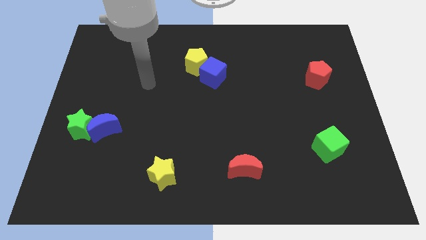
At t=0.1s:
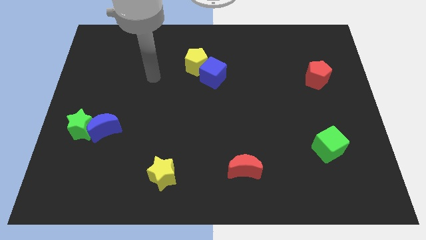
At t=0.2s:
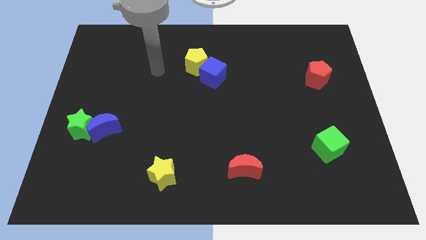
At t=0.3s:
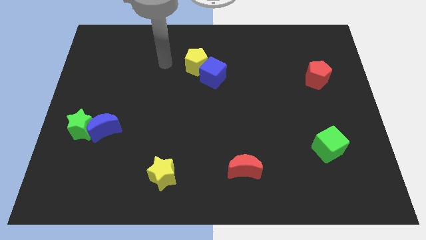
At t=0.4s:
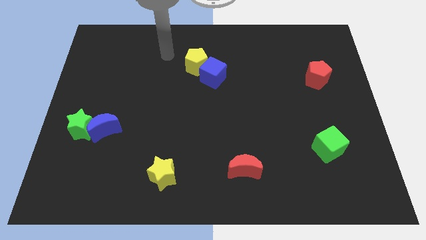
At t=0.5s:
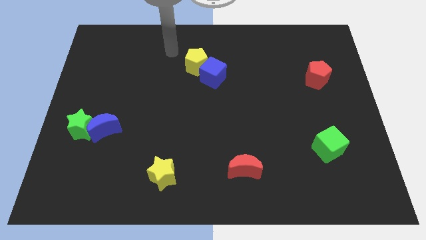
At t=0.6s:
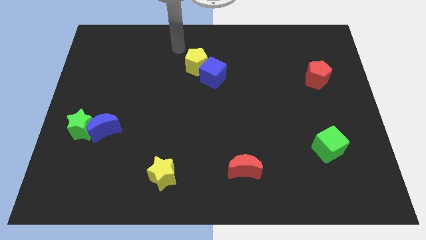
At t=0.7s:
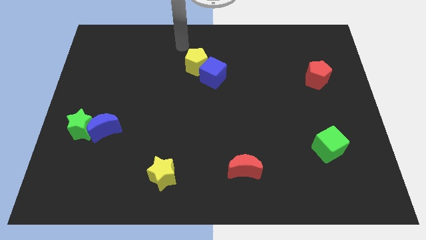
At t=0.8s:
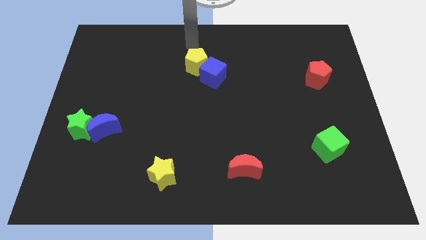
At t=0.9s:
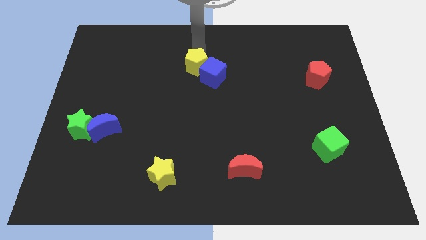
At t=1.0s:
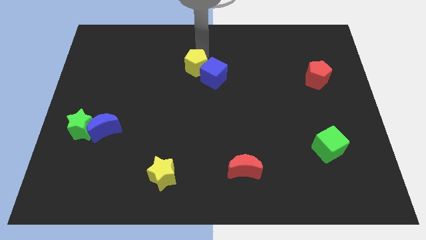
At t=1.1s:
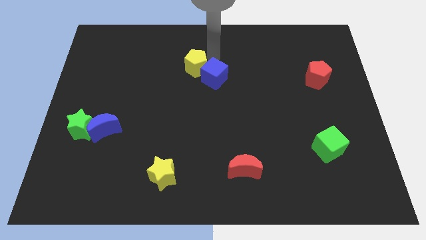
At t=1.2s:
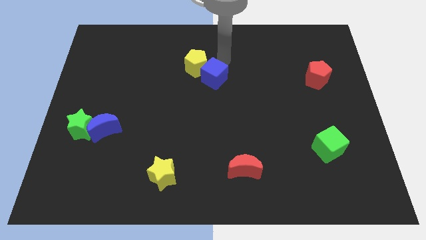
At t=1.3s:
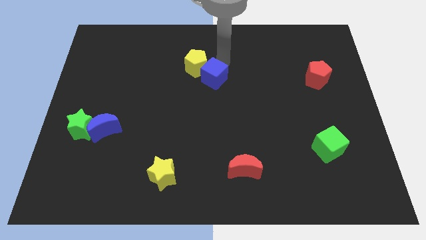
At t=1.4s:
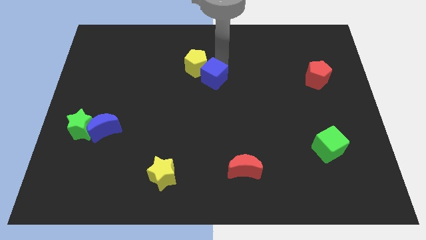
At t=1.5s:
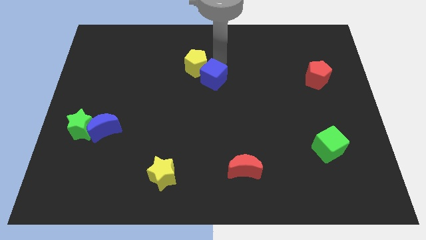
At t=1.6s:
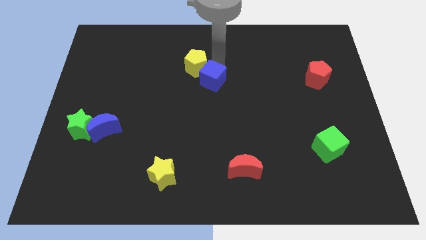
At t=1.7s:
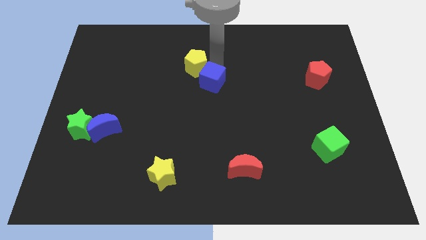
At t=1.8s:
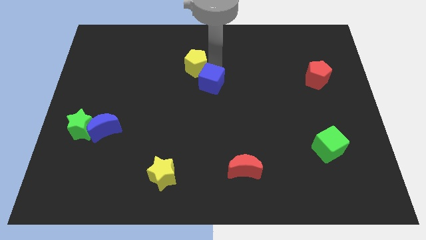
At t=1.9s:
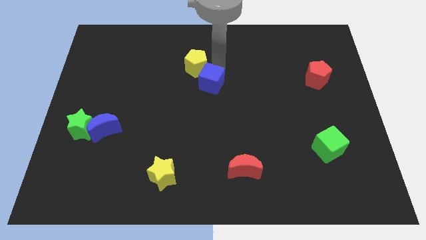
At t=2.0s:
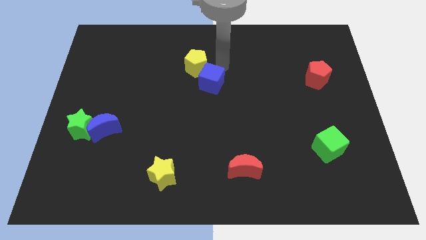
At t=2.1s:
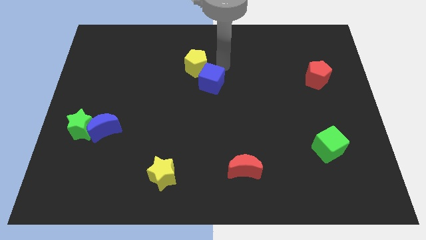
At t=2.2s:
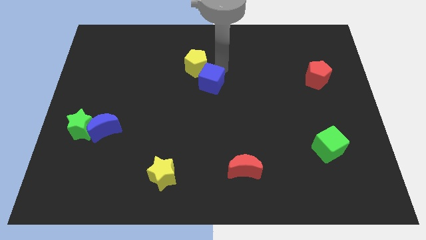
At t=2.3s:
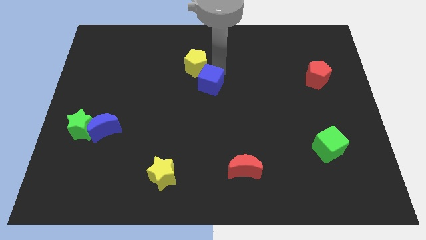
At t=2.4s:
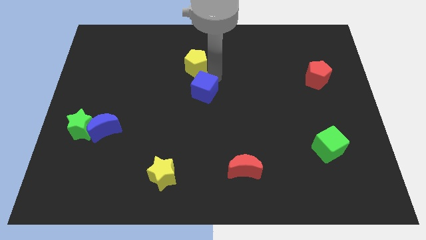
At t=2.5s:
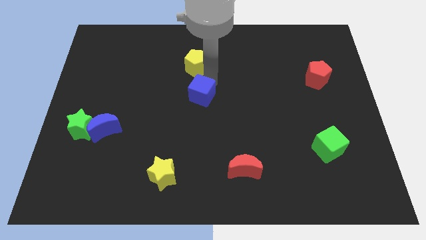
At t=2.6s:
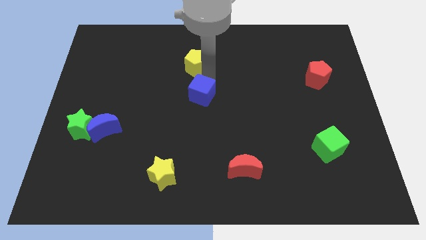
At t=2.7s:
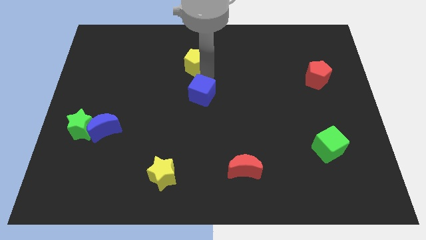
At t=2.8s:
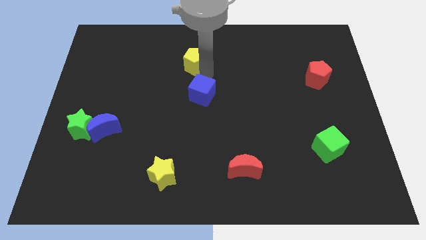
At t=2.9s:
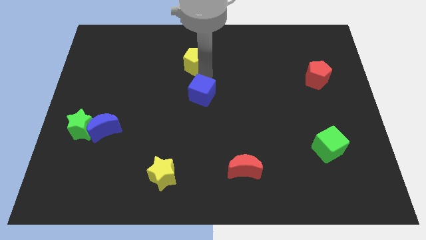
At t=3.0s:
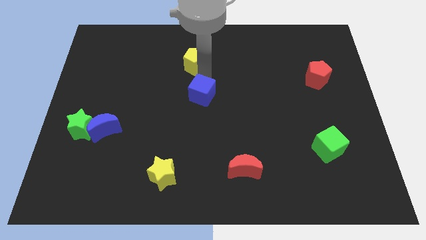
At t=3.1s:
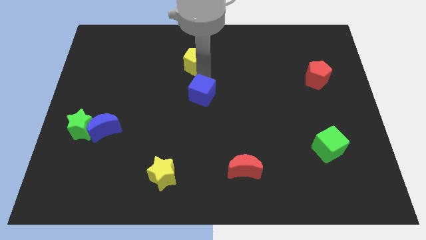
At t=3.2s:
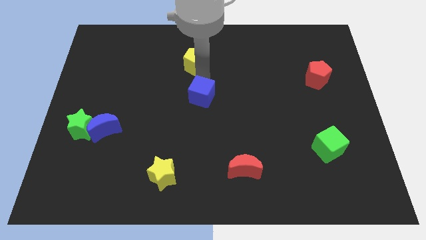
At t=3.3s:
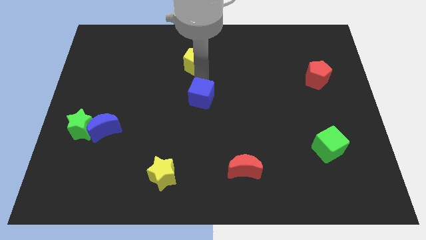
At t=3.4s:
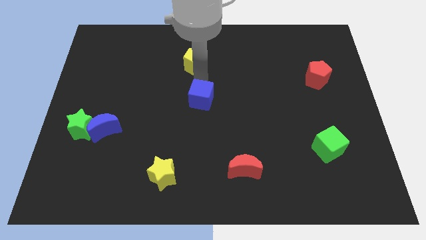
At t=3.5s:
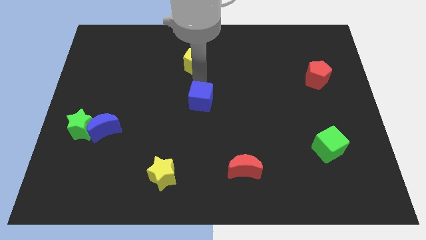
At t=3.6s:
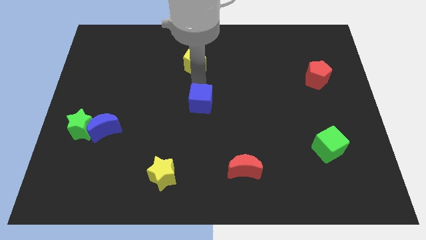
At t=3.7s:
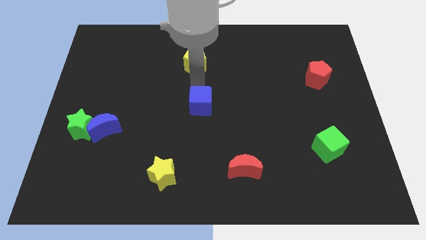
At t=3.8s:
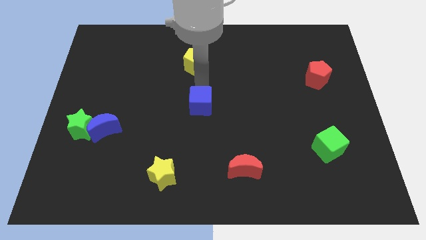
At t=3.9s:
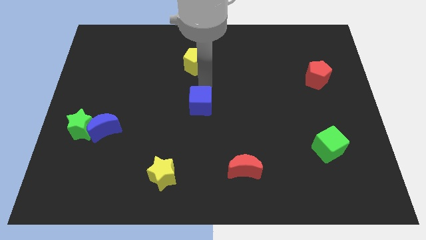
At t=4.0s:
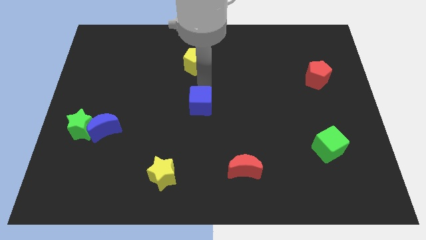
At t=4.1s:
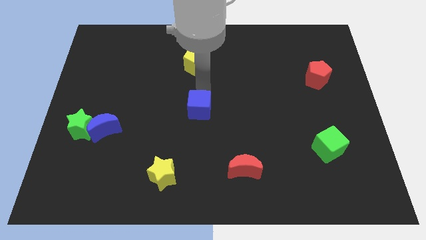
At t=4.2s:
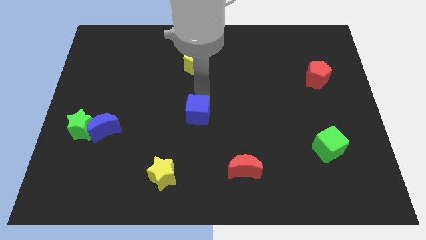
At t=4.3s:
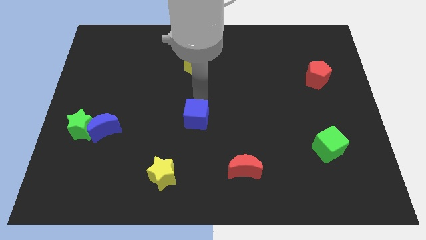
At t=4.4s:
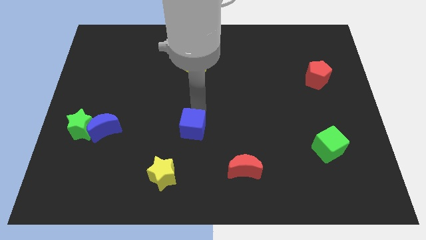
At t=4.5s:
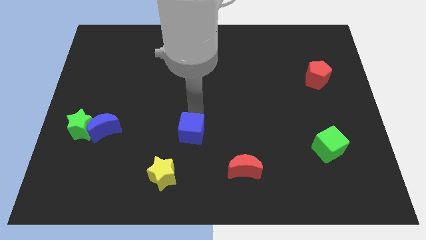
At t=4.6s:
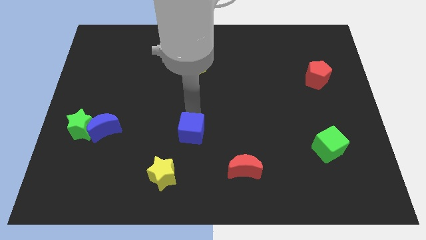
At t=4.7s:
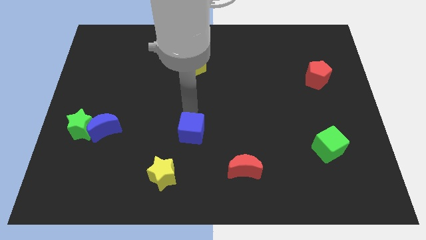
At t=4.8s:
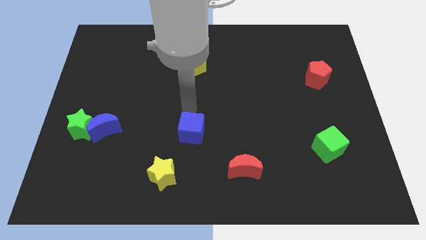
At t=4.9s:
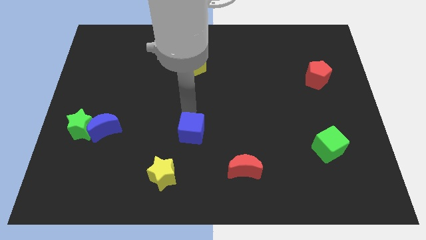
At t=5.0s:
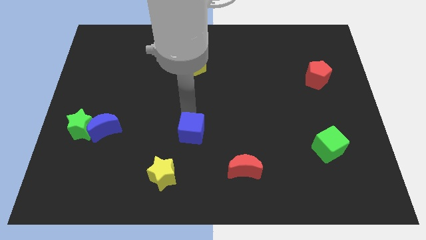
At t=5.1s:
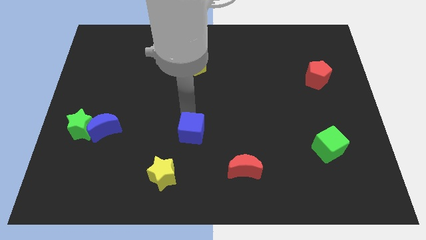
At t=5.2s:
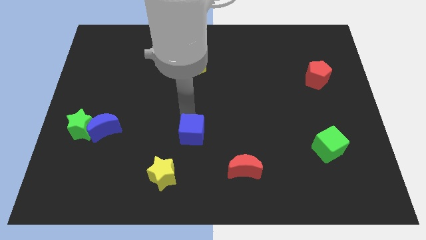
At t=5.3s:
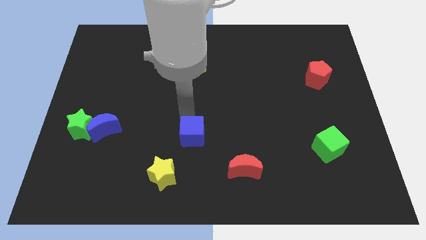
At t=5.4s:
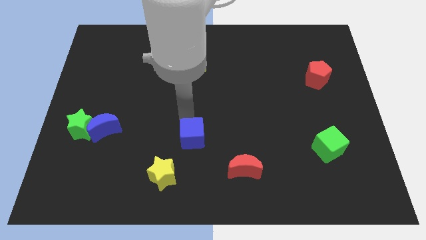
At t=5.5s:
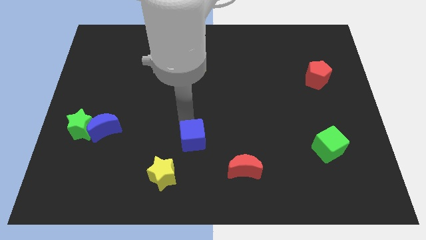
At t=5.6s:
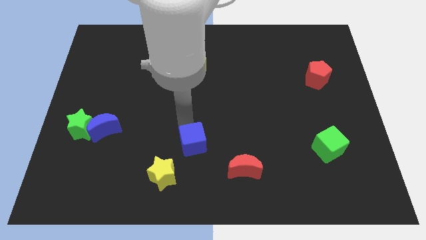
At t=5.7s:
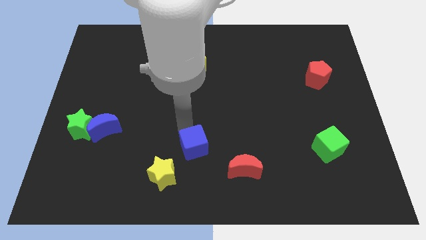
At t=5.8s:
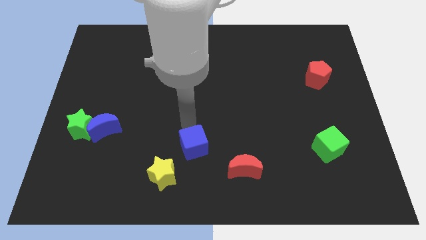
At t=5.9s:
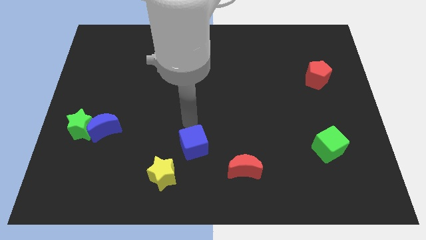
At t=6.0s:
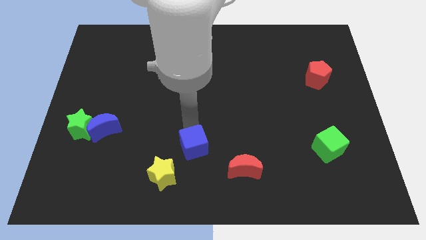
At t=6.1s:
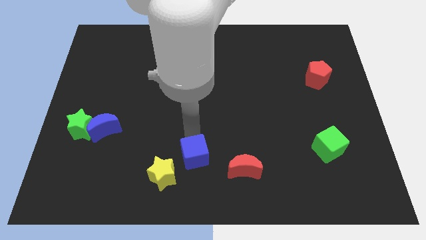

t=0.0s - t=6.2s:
put the blue cube to the bottom

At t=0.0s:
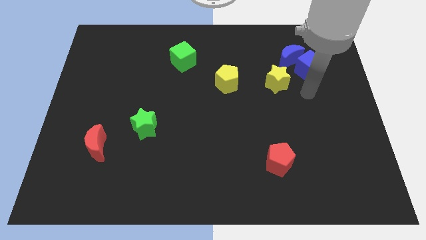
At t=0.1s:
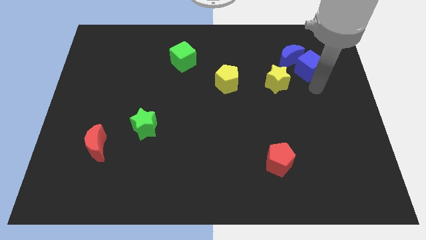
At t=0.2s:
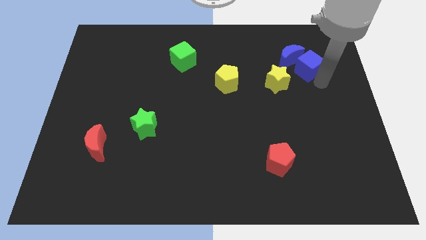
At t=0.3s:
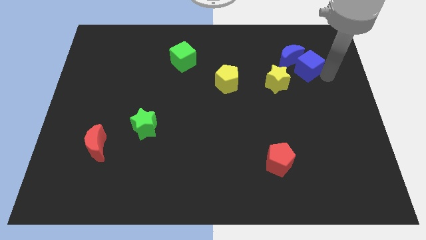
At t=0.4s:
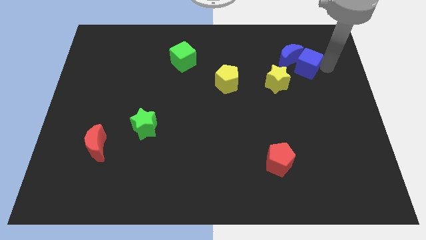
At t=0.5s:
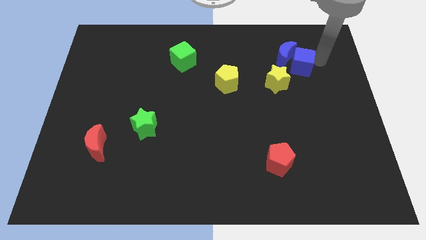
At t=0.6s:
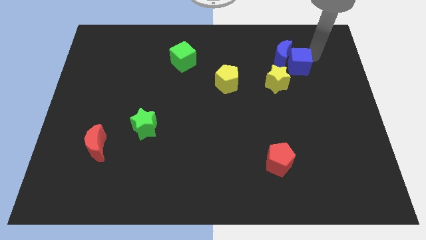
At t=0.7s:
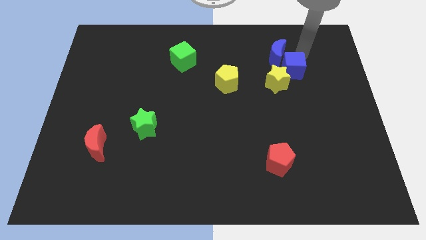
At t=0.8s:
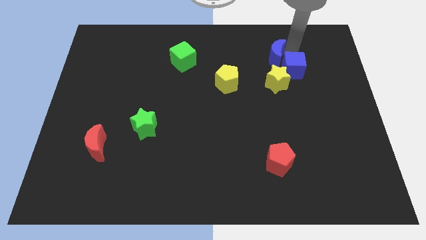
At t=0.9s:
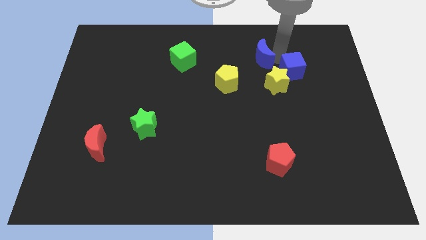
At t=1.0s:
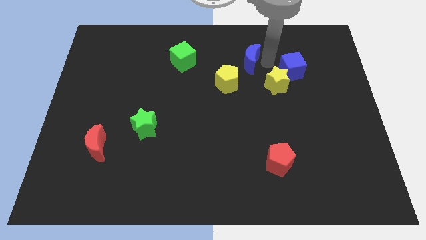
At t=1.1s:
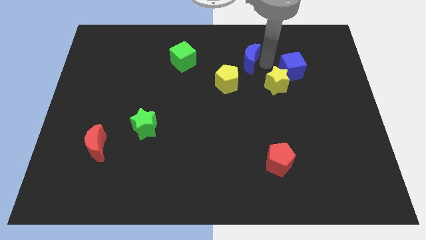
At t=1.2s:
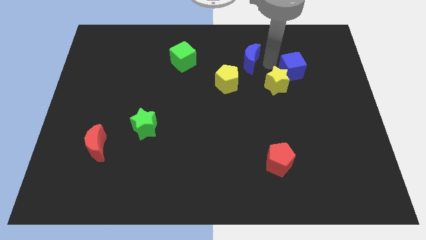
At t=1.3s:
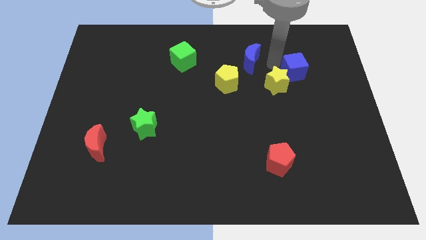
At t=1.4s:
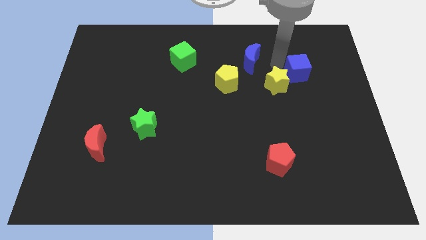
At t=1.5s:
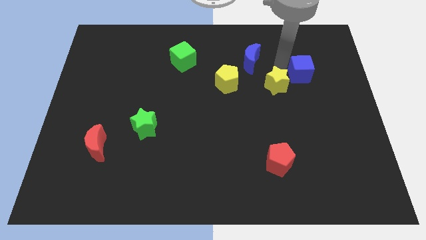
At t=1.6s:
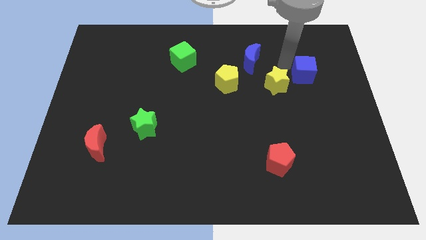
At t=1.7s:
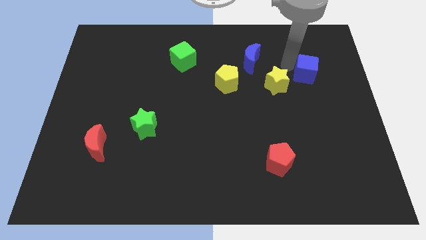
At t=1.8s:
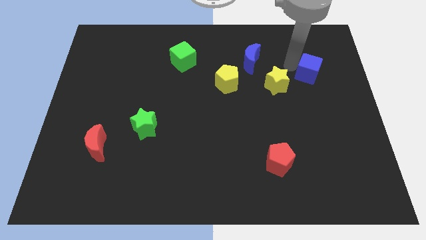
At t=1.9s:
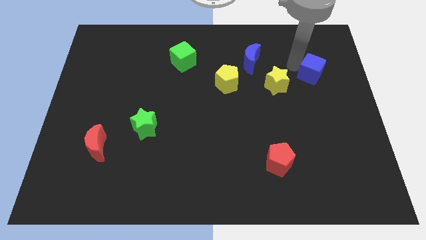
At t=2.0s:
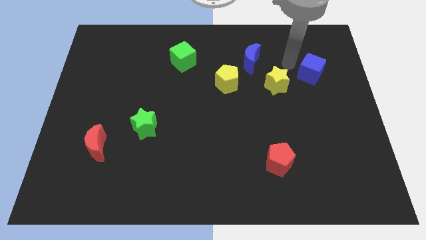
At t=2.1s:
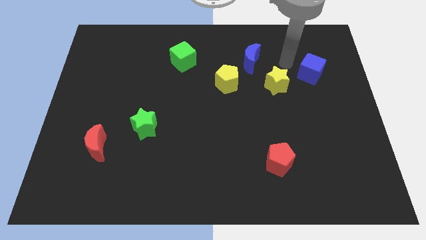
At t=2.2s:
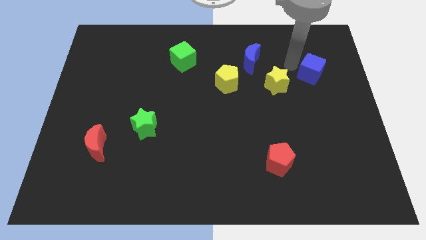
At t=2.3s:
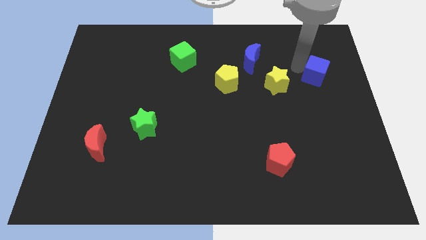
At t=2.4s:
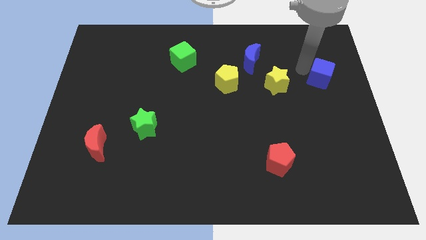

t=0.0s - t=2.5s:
move the blue cube to the right side
